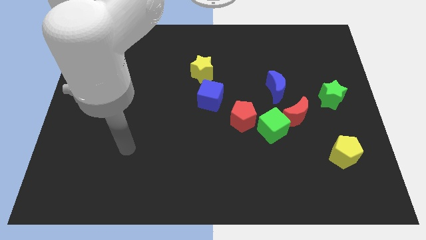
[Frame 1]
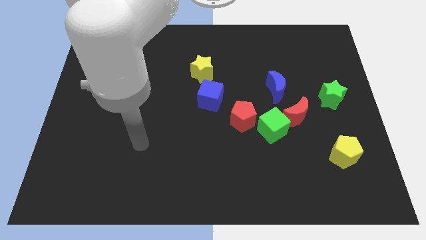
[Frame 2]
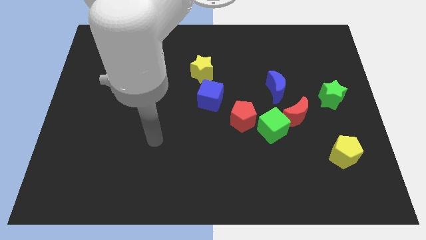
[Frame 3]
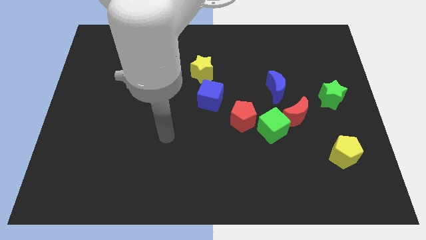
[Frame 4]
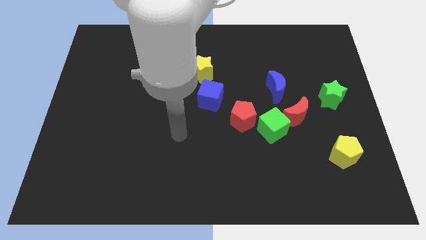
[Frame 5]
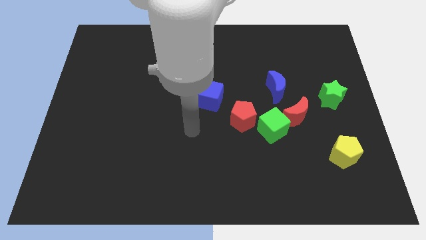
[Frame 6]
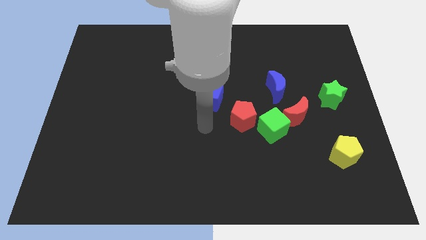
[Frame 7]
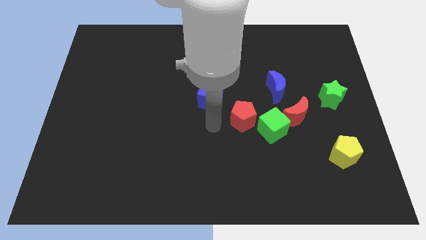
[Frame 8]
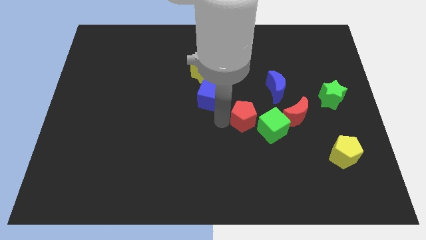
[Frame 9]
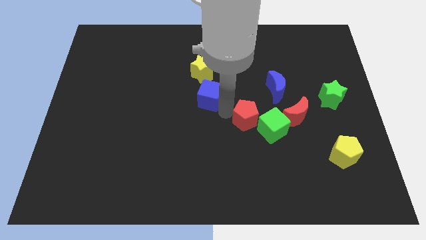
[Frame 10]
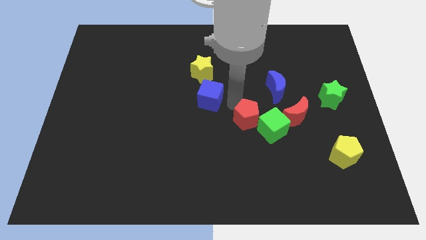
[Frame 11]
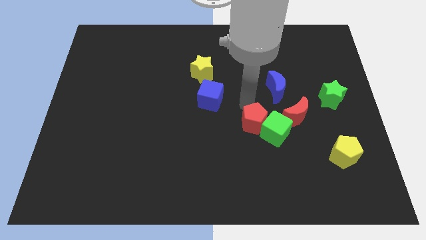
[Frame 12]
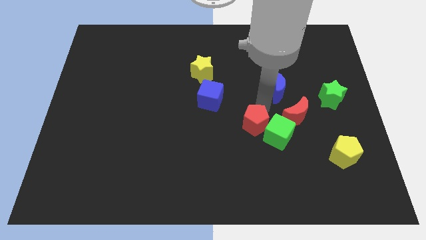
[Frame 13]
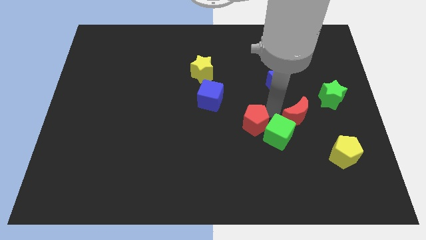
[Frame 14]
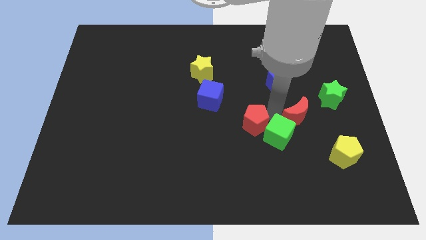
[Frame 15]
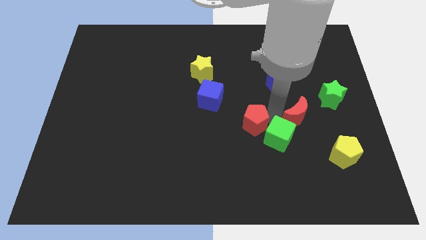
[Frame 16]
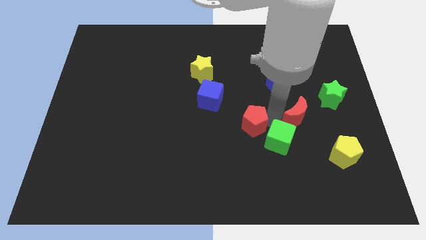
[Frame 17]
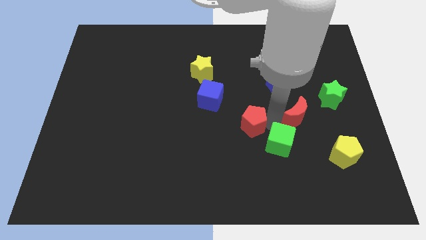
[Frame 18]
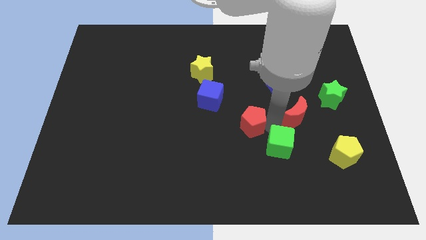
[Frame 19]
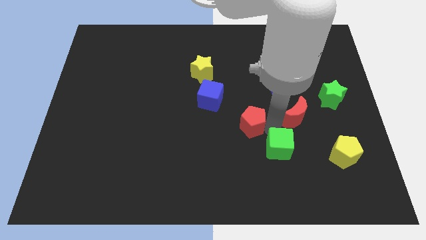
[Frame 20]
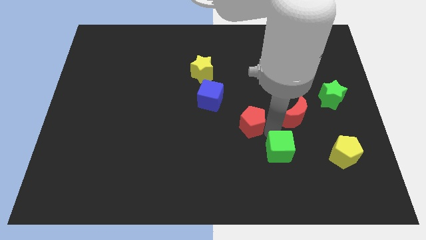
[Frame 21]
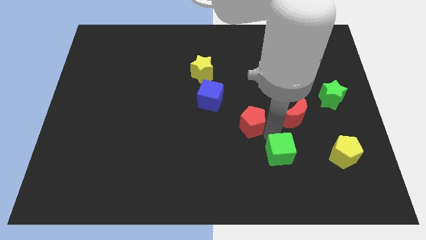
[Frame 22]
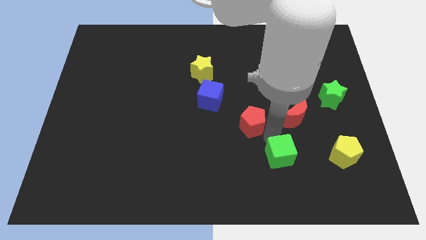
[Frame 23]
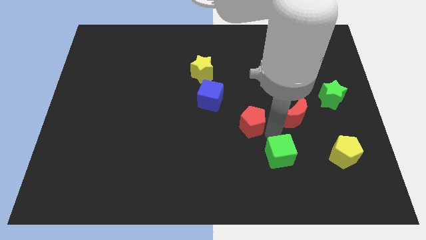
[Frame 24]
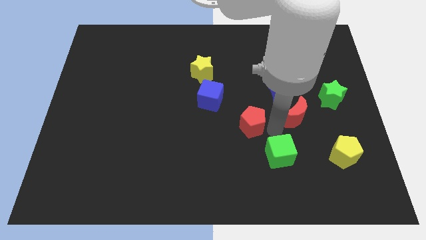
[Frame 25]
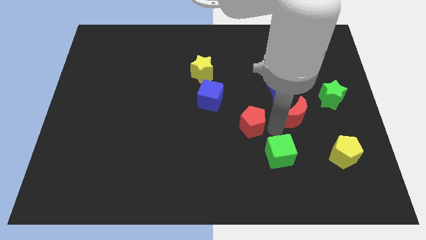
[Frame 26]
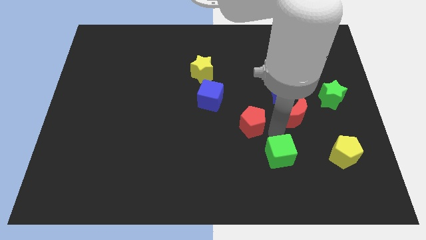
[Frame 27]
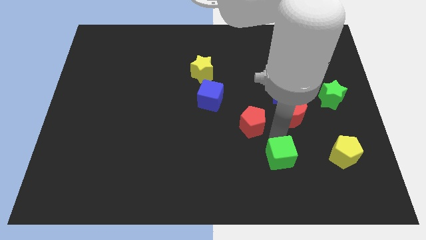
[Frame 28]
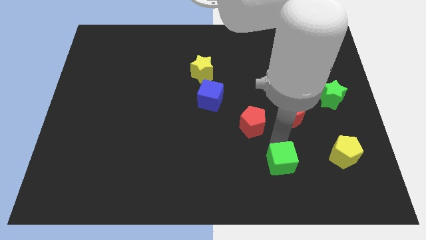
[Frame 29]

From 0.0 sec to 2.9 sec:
pull the green cube apart from the red moon and red pentagon

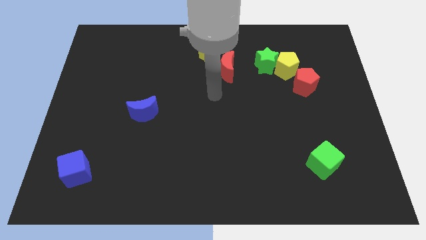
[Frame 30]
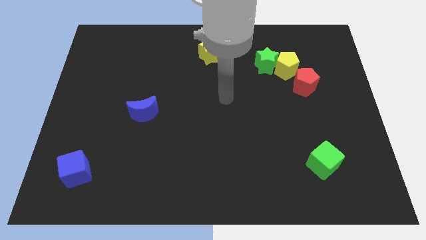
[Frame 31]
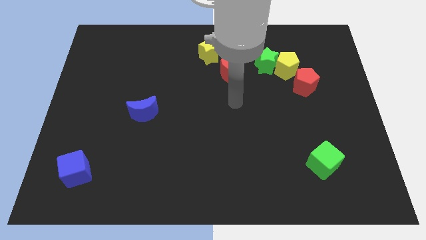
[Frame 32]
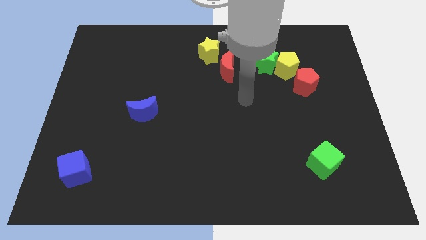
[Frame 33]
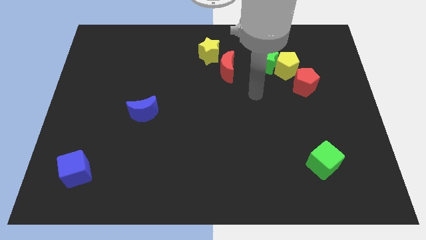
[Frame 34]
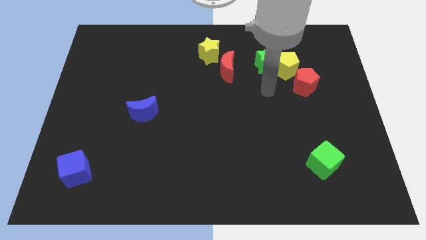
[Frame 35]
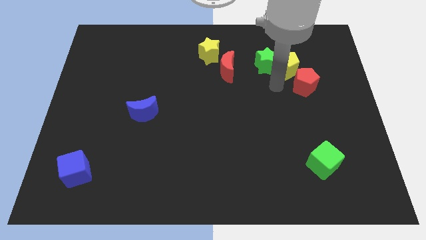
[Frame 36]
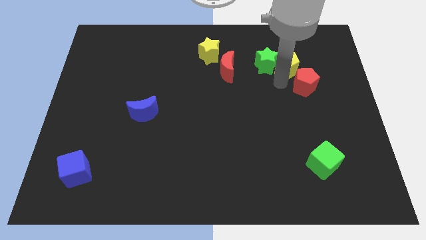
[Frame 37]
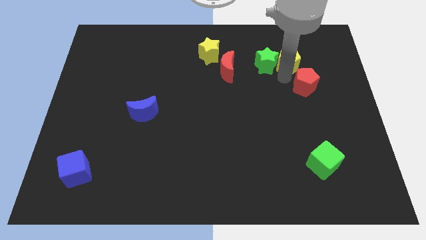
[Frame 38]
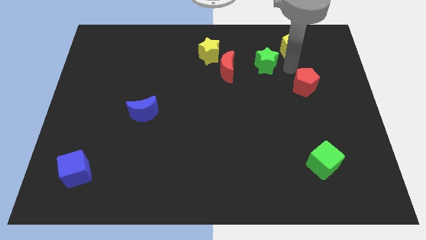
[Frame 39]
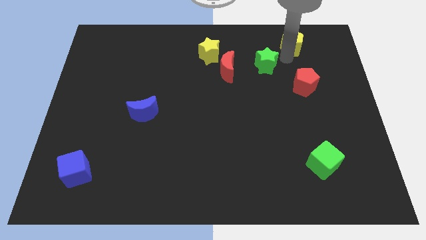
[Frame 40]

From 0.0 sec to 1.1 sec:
move the green star away from the yellow pentagon

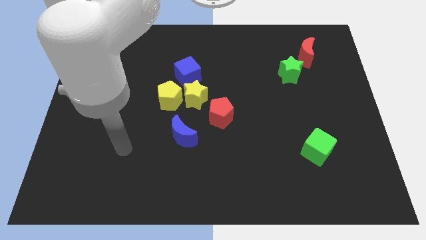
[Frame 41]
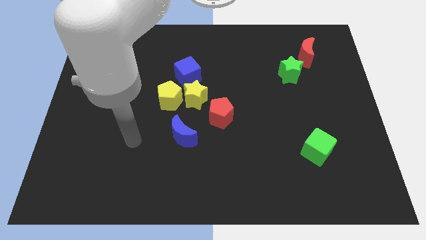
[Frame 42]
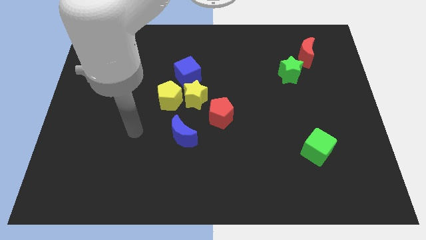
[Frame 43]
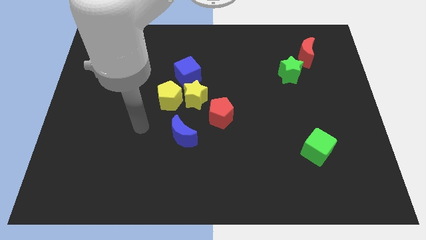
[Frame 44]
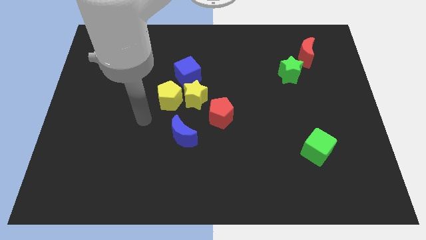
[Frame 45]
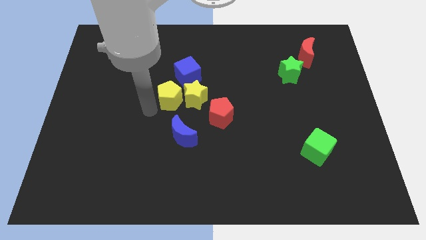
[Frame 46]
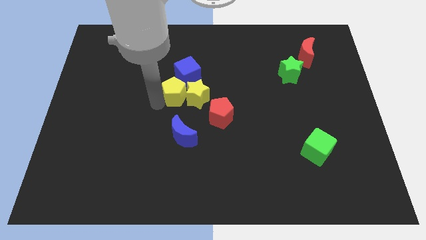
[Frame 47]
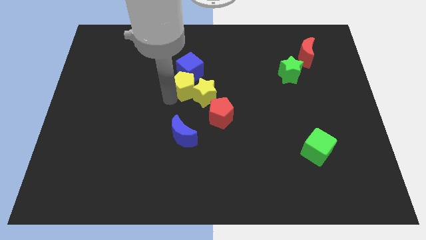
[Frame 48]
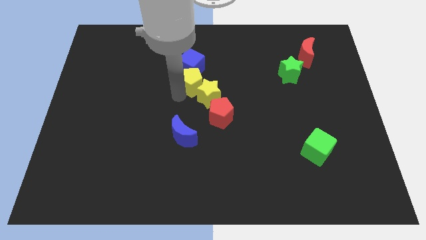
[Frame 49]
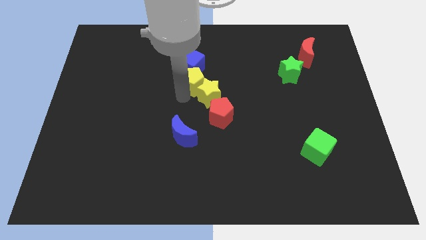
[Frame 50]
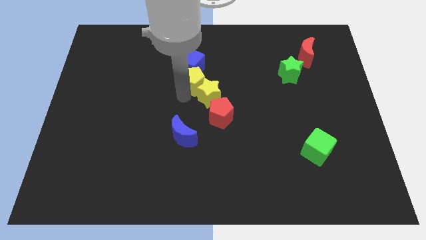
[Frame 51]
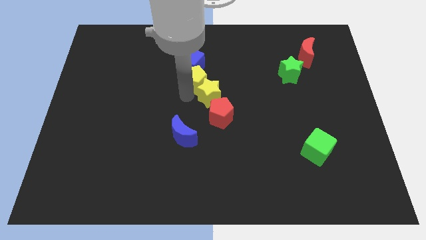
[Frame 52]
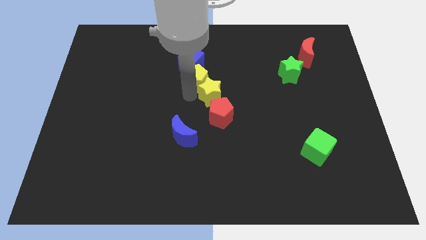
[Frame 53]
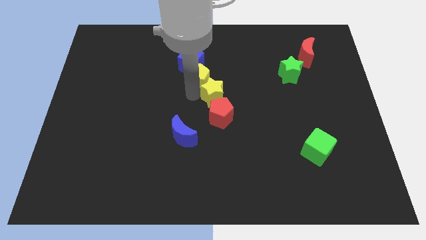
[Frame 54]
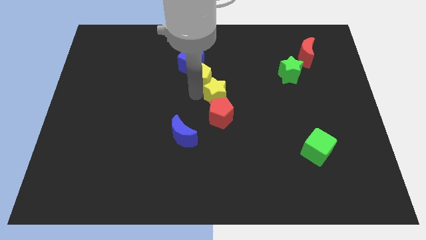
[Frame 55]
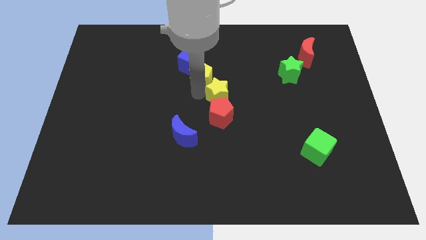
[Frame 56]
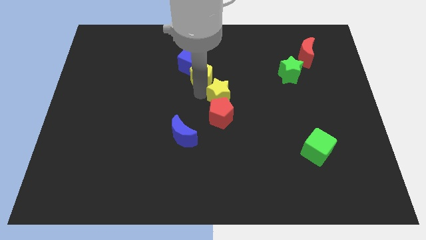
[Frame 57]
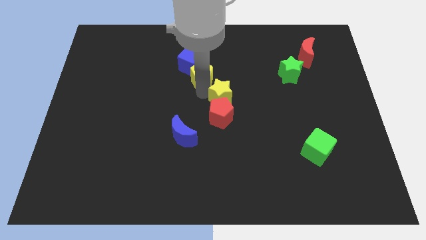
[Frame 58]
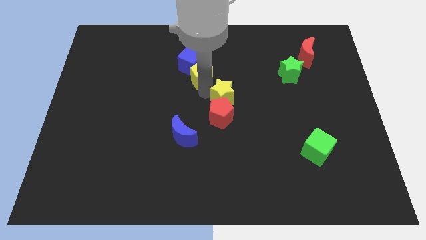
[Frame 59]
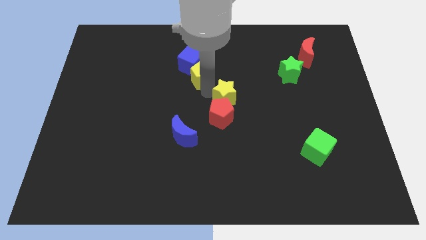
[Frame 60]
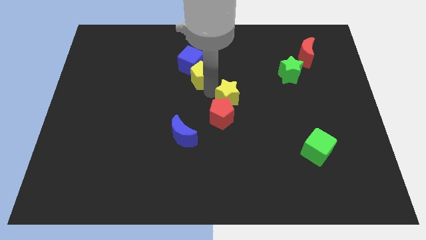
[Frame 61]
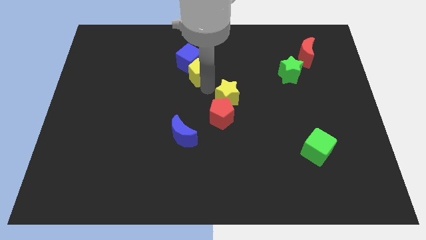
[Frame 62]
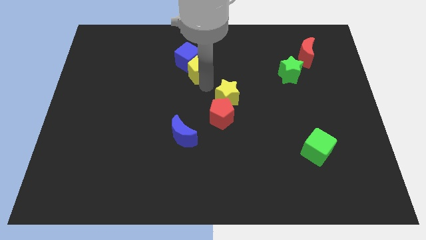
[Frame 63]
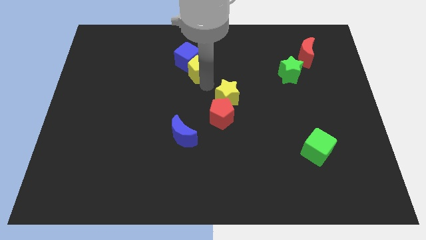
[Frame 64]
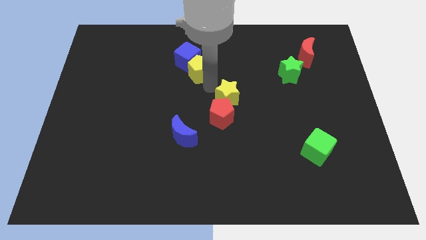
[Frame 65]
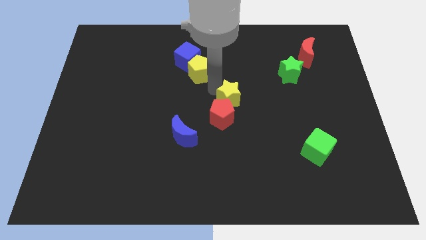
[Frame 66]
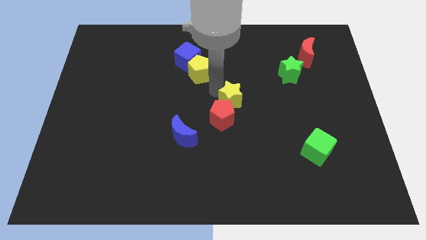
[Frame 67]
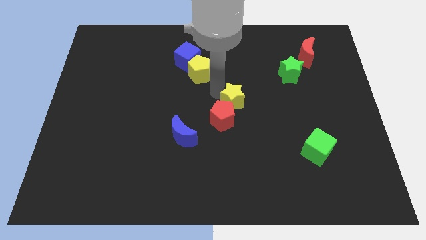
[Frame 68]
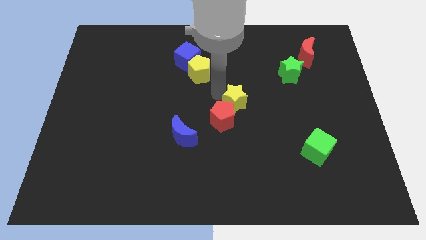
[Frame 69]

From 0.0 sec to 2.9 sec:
move the yellow star away from the yellow pentagon, blue cube, and red pentagon

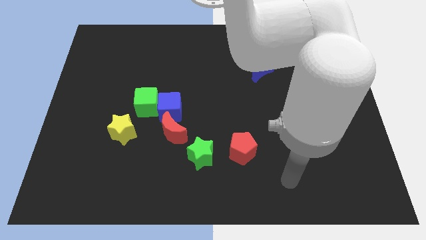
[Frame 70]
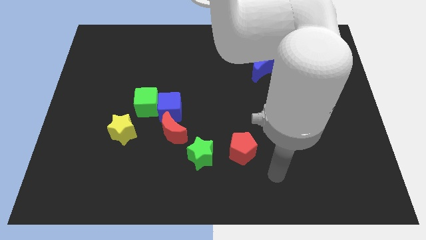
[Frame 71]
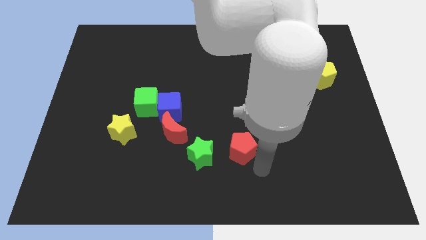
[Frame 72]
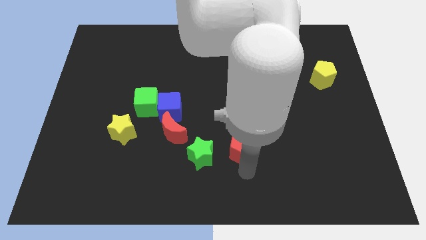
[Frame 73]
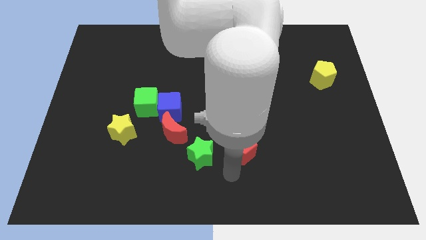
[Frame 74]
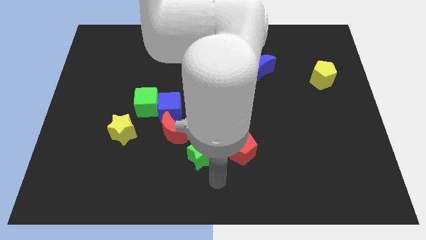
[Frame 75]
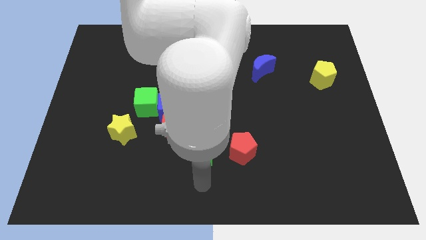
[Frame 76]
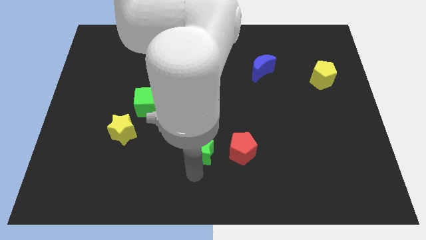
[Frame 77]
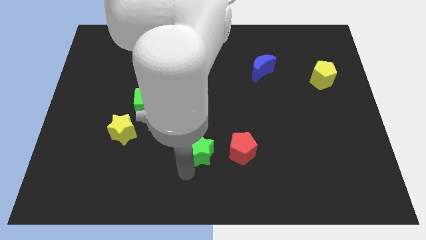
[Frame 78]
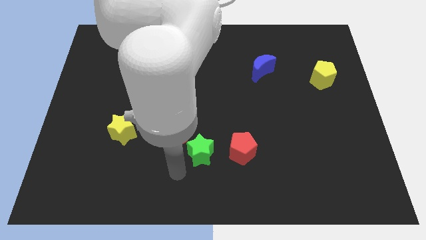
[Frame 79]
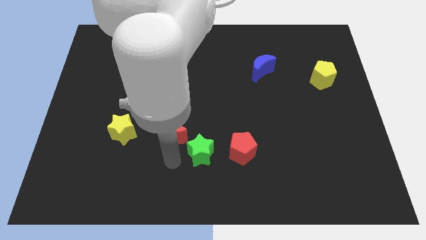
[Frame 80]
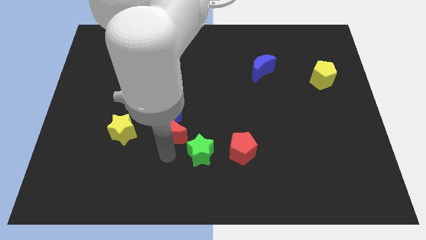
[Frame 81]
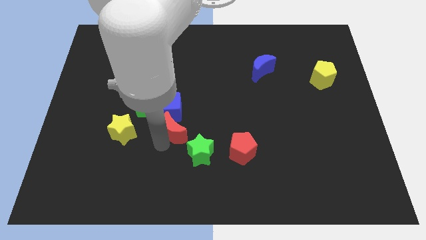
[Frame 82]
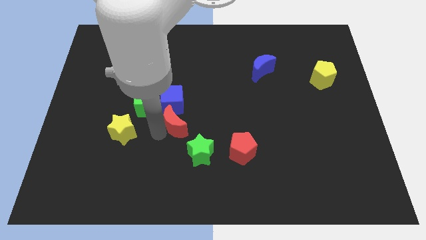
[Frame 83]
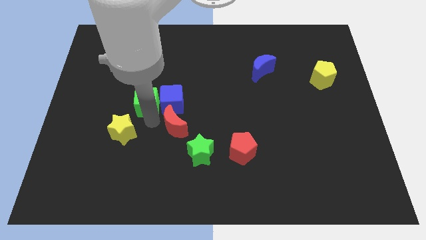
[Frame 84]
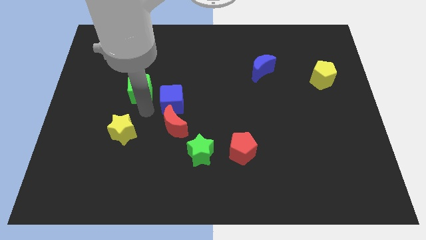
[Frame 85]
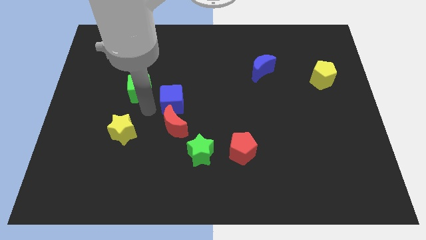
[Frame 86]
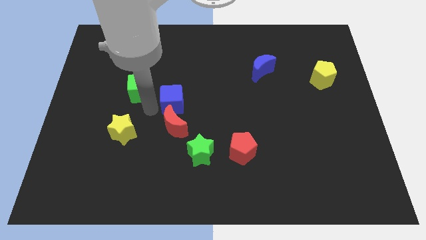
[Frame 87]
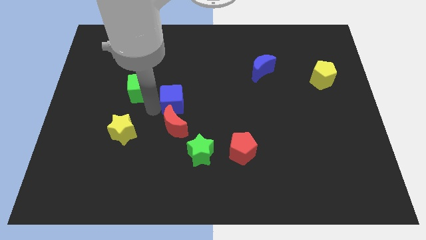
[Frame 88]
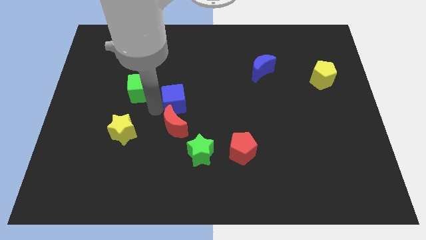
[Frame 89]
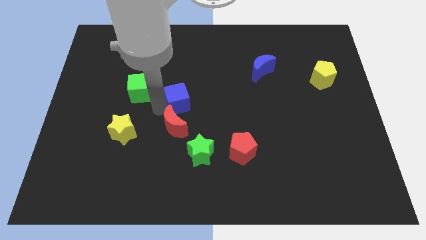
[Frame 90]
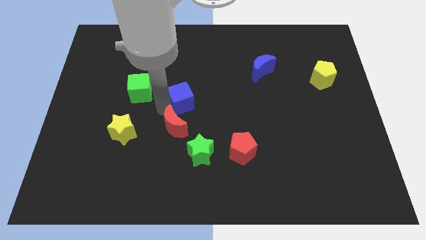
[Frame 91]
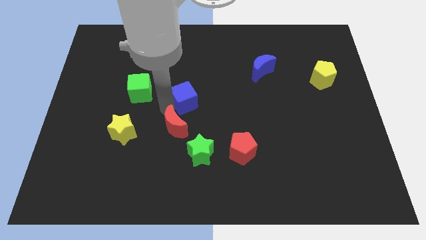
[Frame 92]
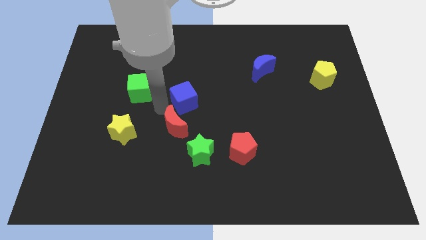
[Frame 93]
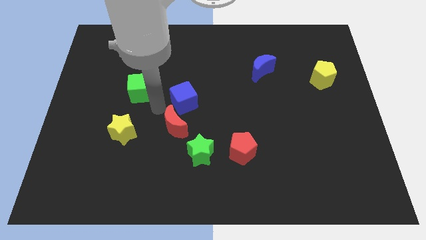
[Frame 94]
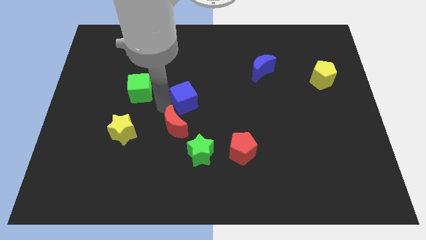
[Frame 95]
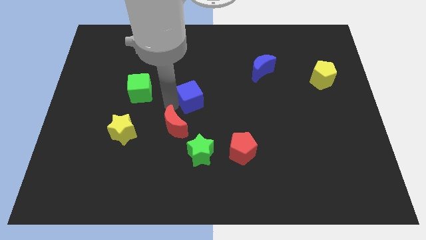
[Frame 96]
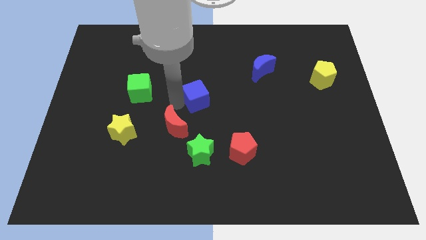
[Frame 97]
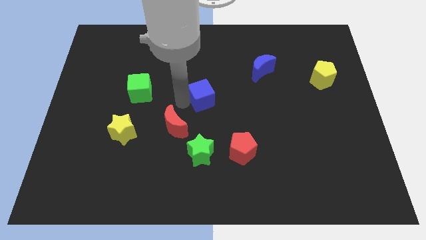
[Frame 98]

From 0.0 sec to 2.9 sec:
pull the blue cube apart from the green cube and red moon
